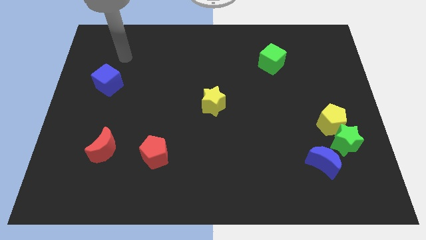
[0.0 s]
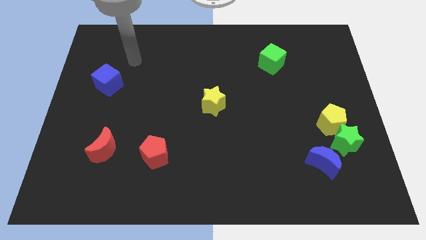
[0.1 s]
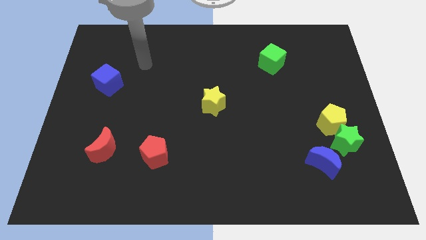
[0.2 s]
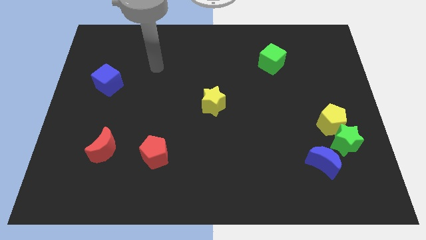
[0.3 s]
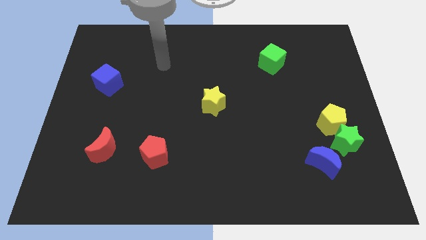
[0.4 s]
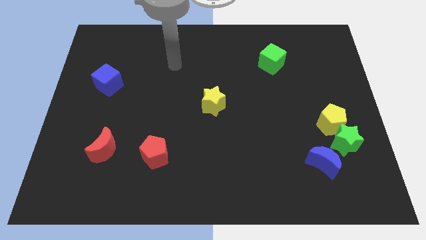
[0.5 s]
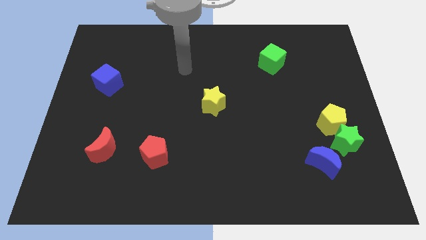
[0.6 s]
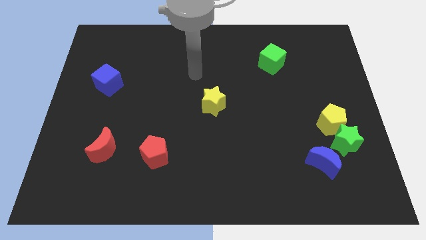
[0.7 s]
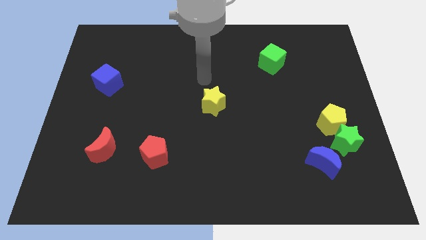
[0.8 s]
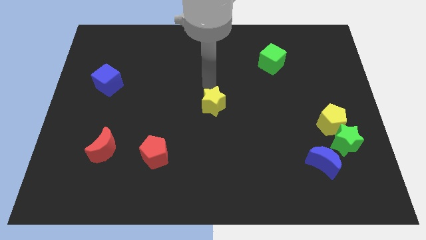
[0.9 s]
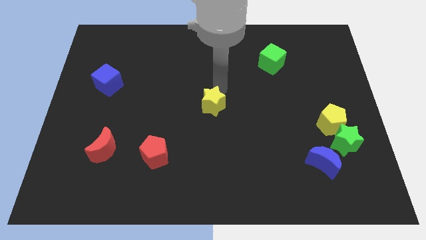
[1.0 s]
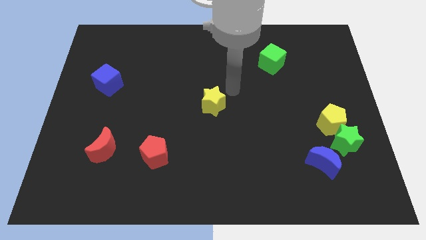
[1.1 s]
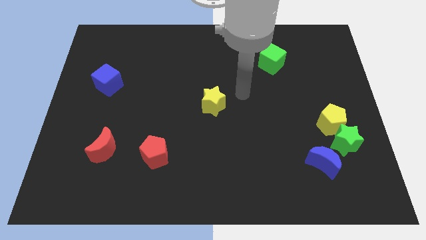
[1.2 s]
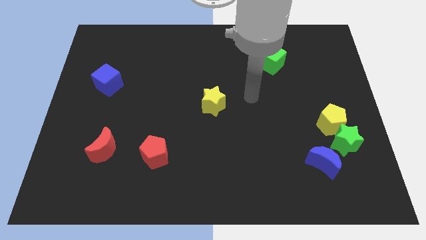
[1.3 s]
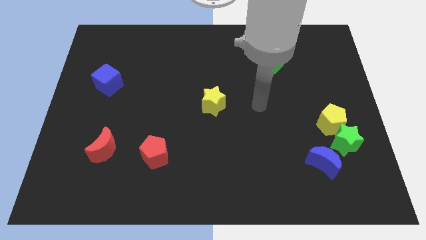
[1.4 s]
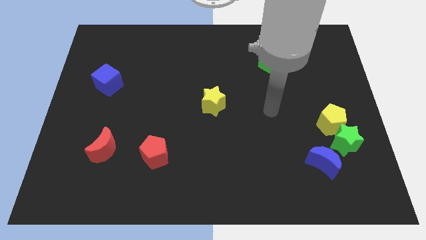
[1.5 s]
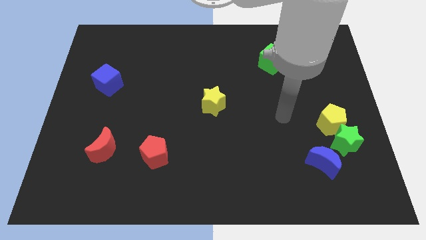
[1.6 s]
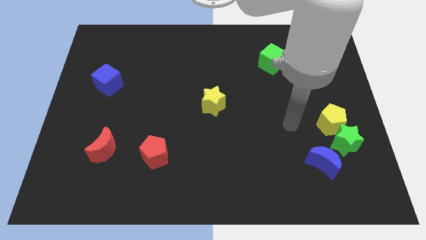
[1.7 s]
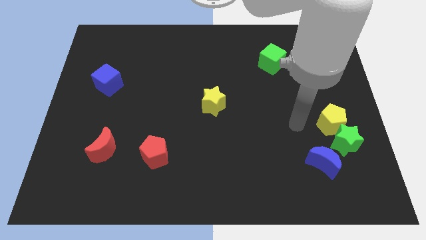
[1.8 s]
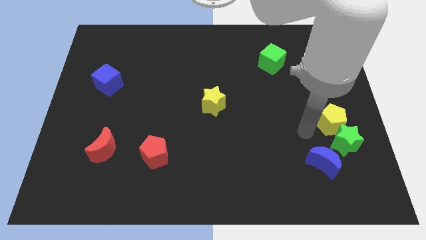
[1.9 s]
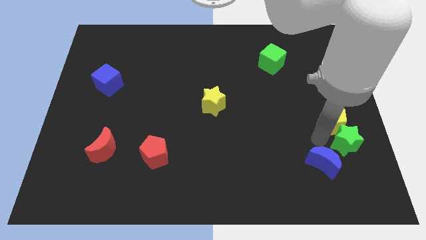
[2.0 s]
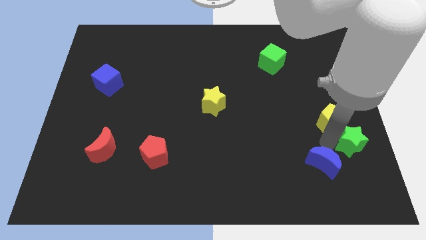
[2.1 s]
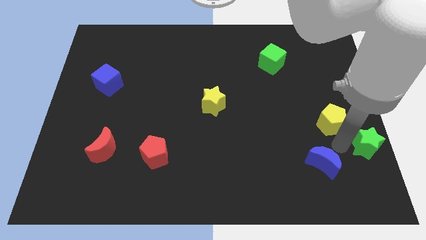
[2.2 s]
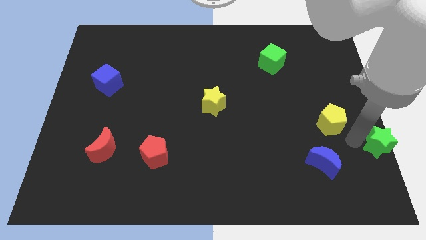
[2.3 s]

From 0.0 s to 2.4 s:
separate the yellow pentagon from the green star

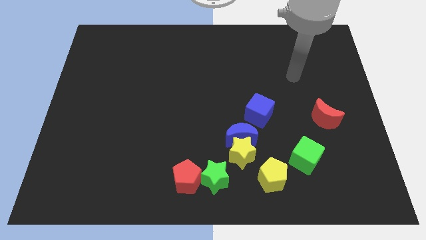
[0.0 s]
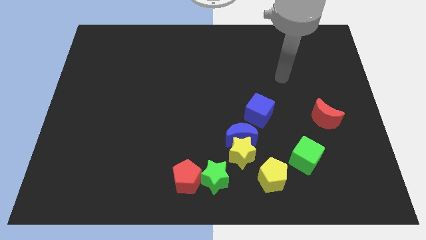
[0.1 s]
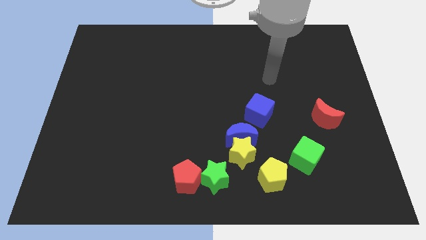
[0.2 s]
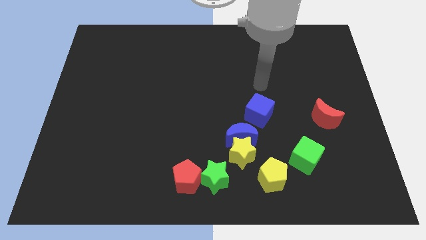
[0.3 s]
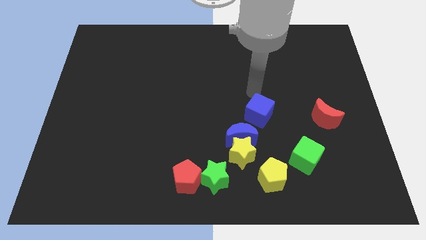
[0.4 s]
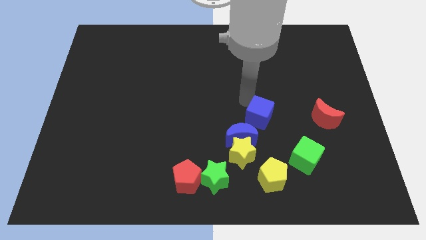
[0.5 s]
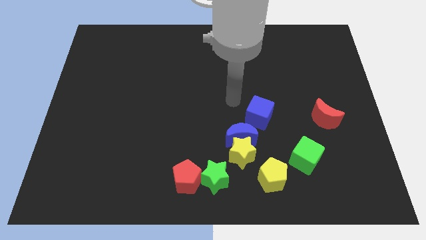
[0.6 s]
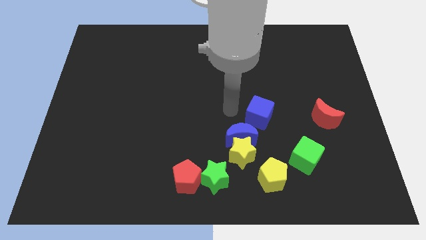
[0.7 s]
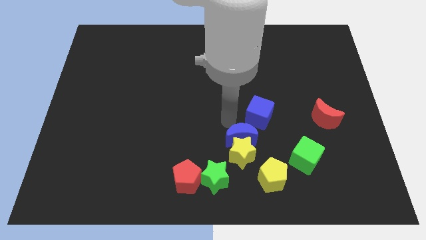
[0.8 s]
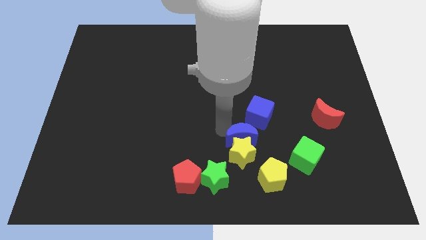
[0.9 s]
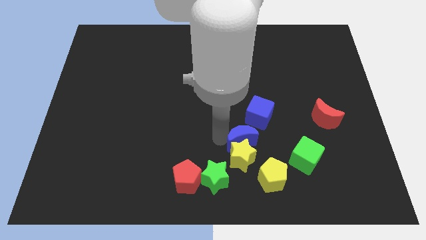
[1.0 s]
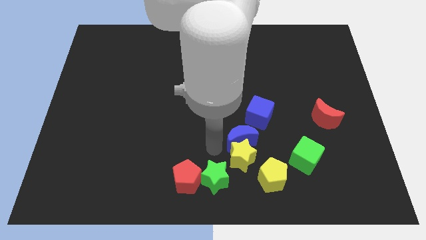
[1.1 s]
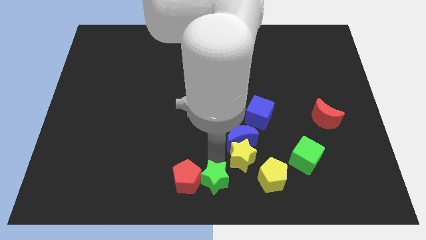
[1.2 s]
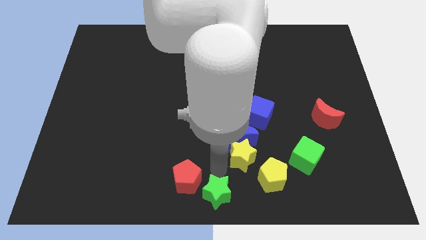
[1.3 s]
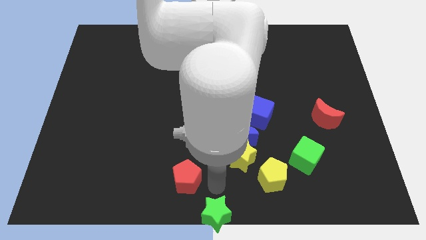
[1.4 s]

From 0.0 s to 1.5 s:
pull the red pentagon apart from the green star

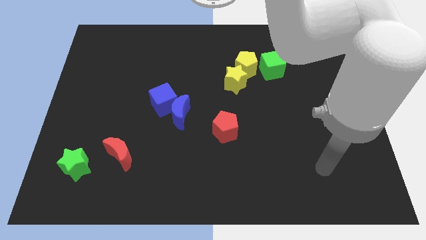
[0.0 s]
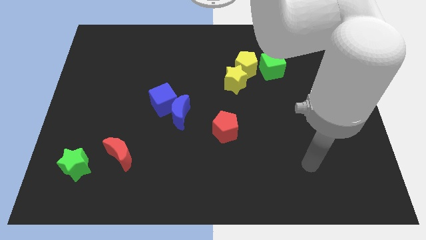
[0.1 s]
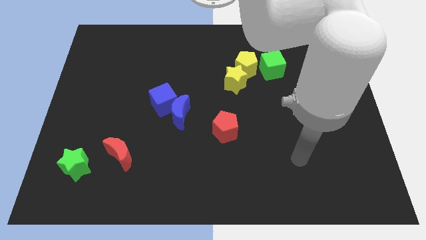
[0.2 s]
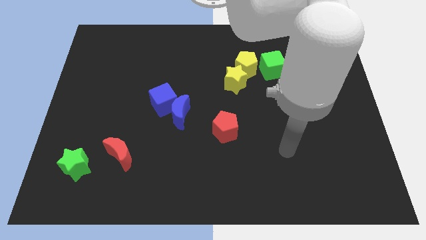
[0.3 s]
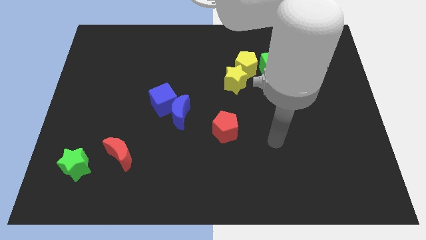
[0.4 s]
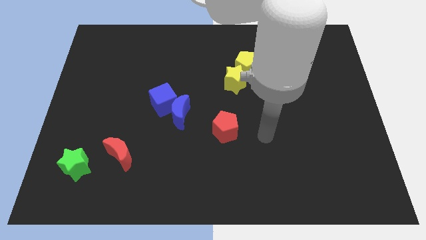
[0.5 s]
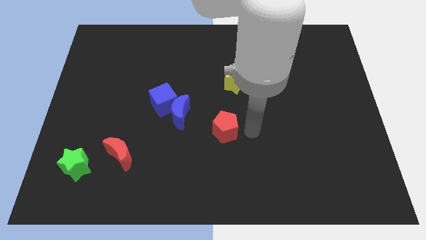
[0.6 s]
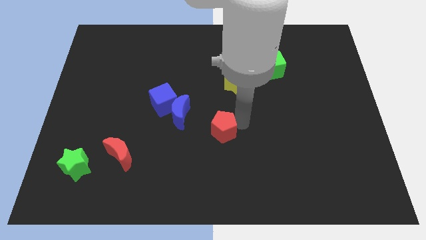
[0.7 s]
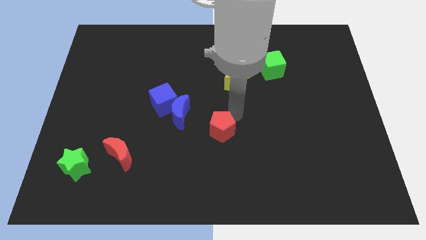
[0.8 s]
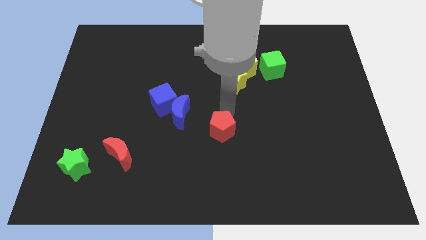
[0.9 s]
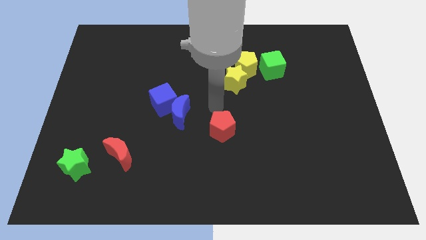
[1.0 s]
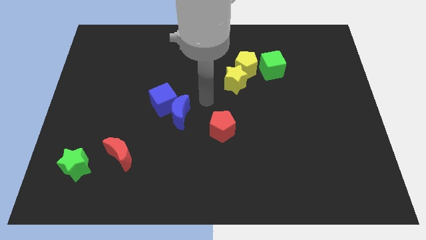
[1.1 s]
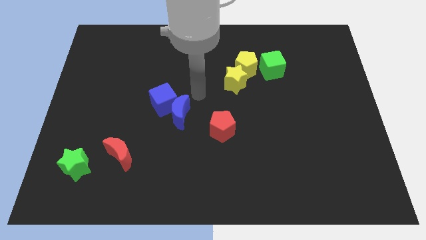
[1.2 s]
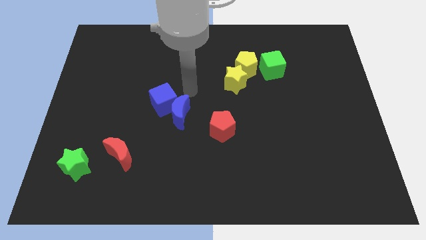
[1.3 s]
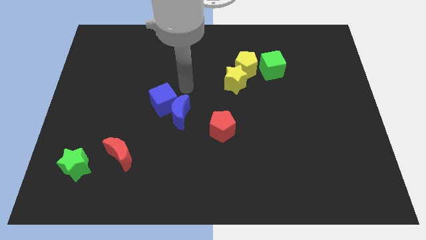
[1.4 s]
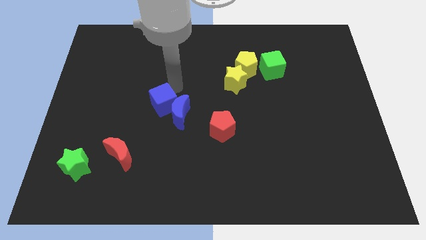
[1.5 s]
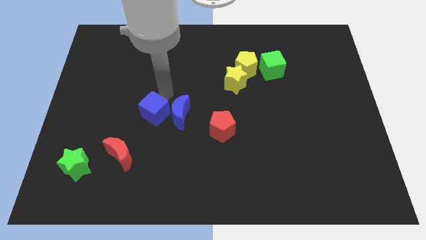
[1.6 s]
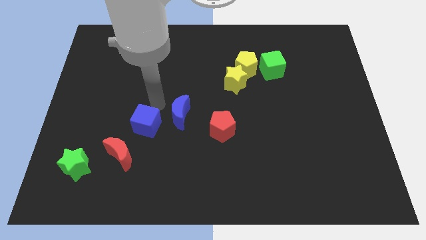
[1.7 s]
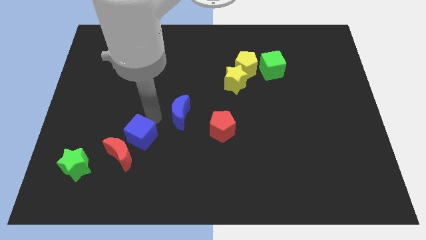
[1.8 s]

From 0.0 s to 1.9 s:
pull the blue moon apart from the blue cube

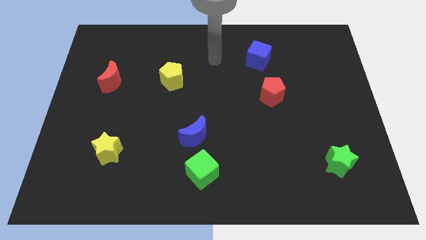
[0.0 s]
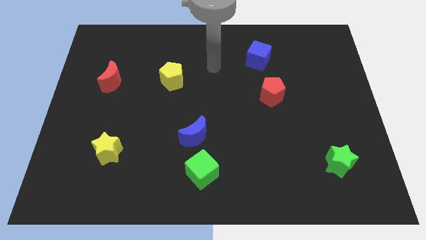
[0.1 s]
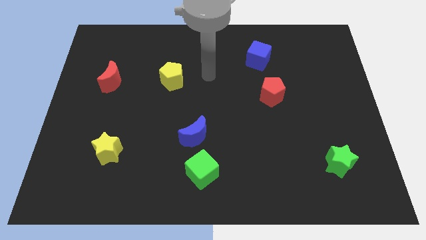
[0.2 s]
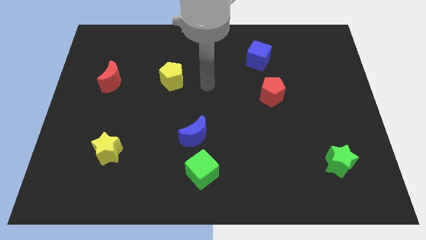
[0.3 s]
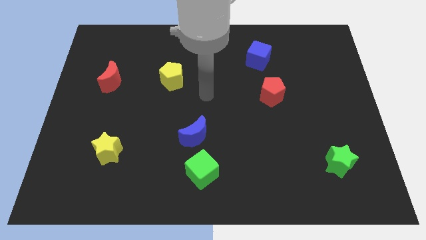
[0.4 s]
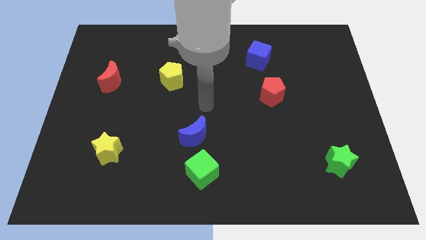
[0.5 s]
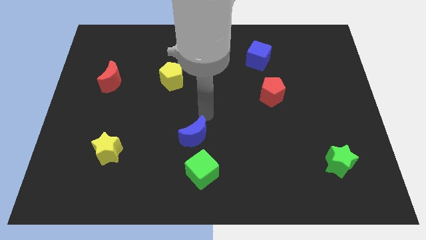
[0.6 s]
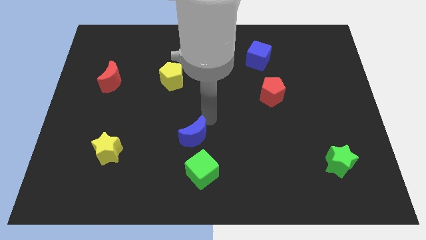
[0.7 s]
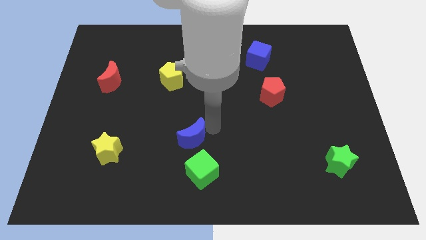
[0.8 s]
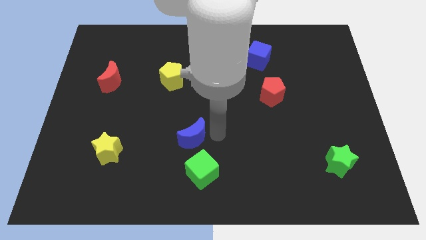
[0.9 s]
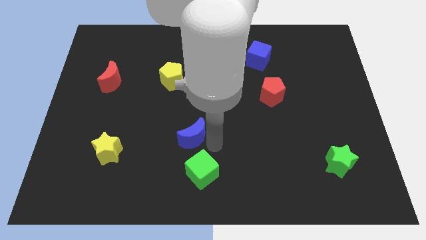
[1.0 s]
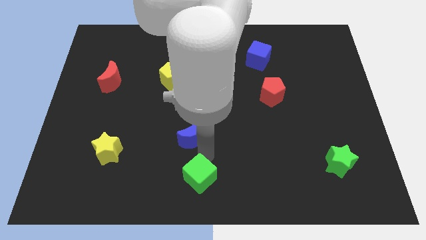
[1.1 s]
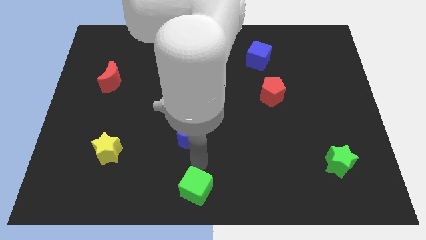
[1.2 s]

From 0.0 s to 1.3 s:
pull the blue moon apart from the green cube

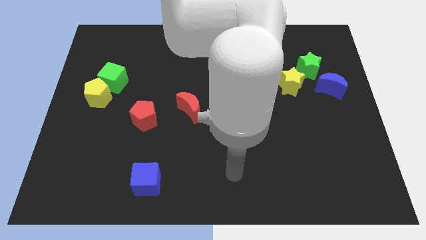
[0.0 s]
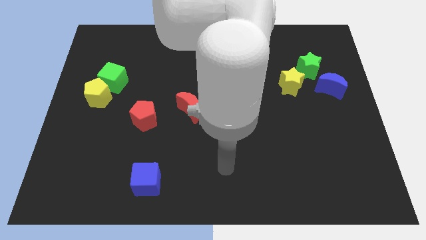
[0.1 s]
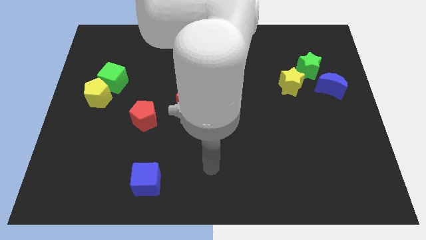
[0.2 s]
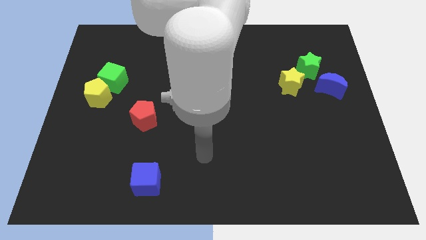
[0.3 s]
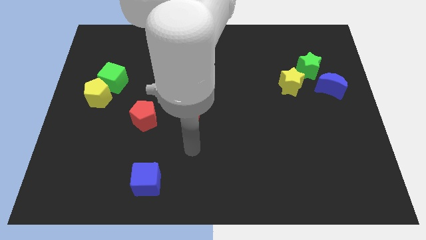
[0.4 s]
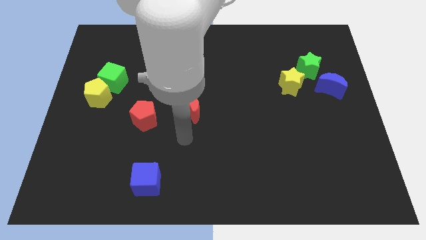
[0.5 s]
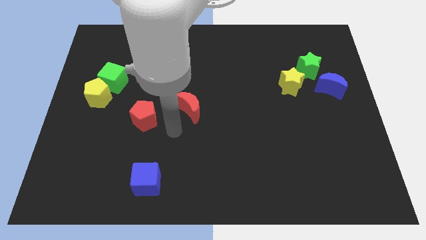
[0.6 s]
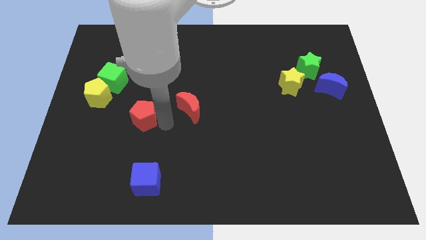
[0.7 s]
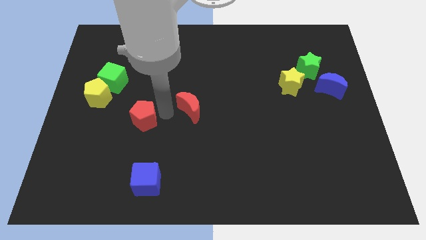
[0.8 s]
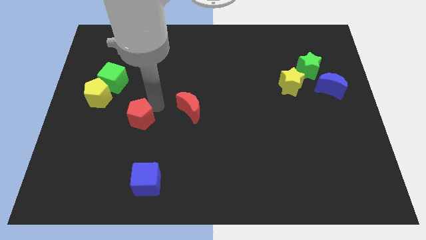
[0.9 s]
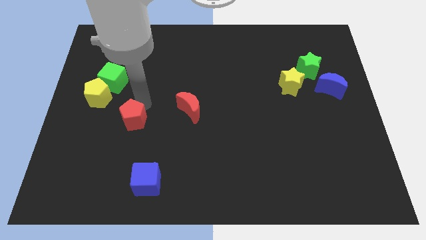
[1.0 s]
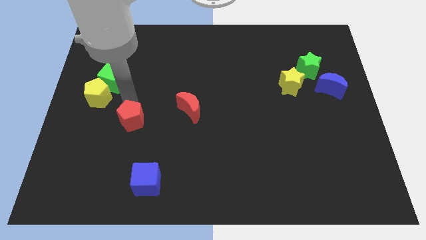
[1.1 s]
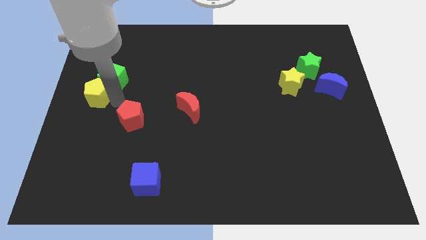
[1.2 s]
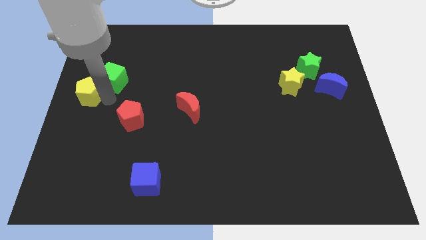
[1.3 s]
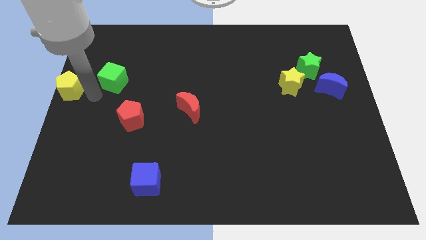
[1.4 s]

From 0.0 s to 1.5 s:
move the green cube away from the yellow pentagon

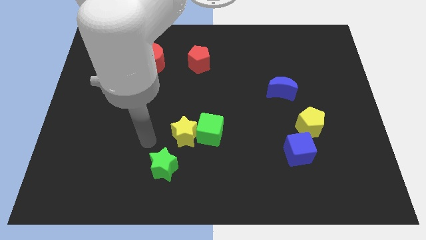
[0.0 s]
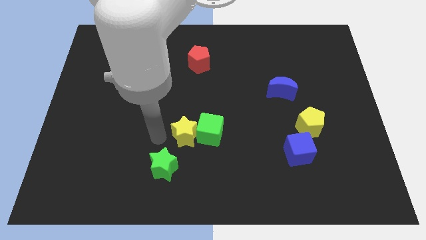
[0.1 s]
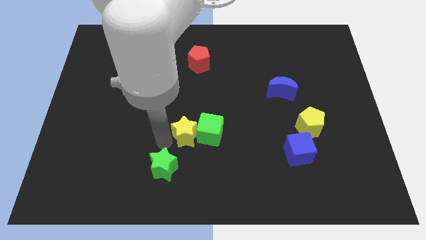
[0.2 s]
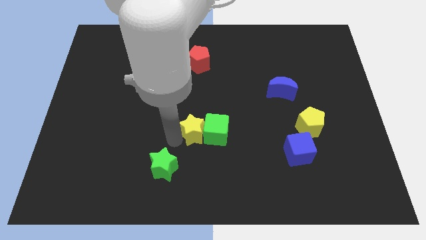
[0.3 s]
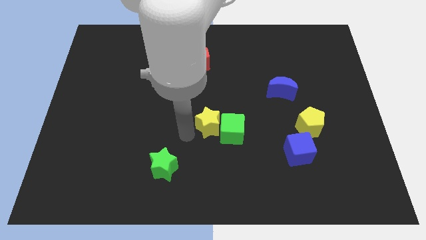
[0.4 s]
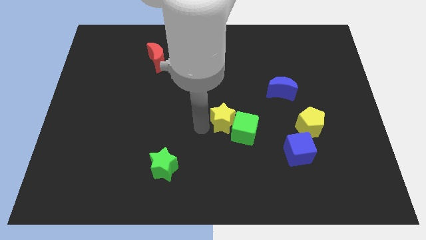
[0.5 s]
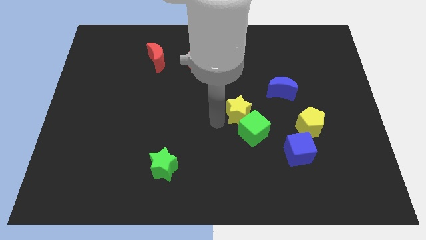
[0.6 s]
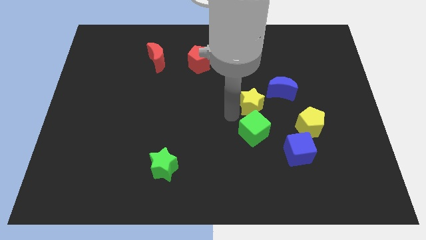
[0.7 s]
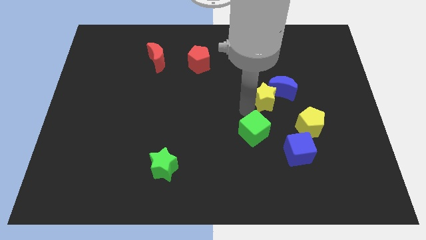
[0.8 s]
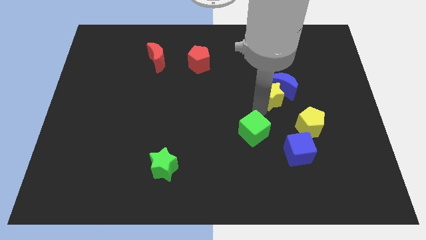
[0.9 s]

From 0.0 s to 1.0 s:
move the green cube away from the yellow star
